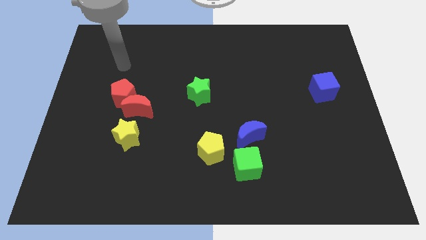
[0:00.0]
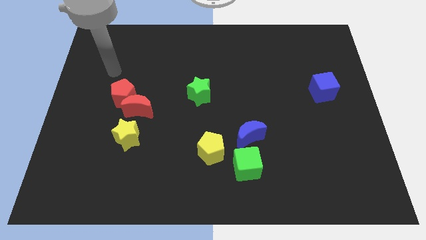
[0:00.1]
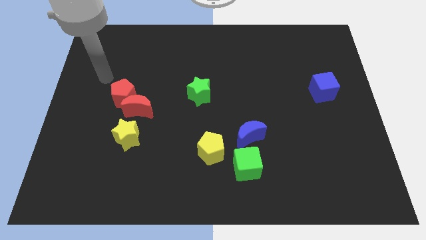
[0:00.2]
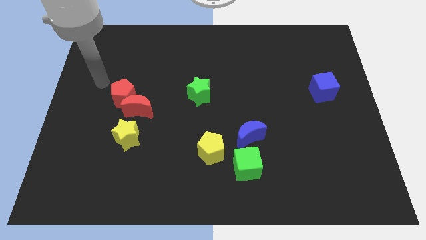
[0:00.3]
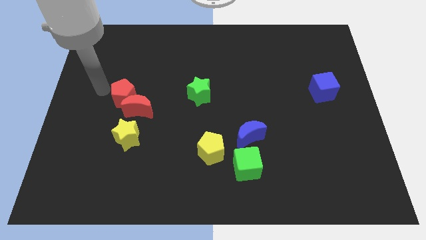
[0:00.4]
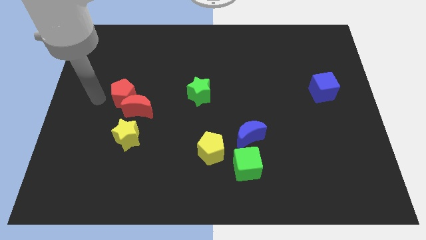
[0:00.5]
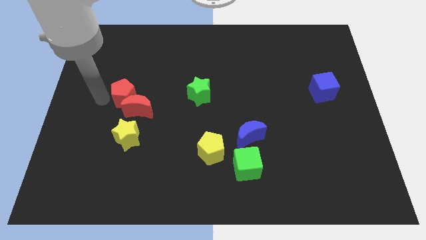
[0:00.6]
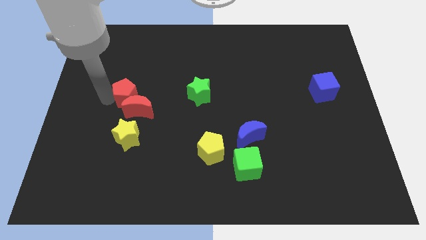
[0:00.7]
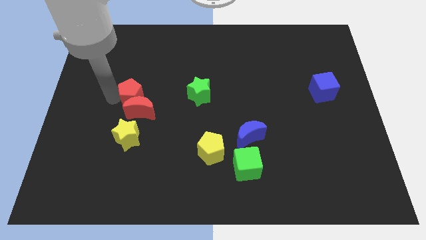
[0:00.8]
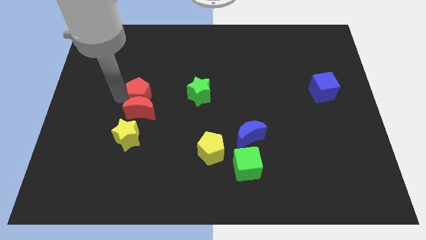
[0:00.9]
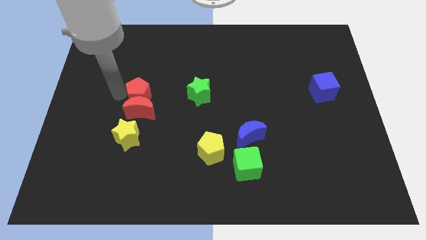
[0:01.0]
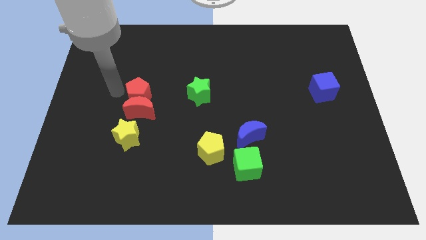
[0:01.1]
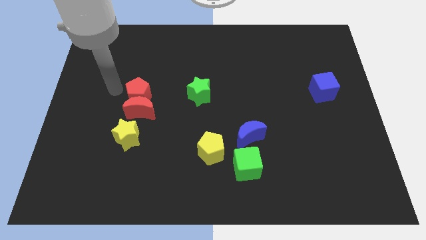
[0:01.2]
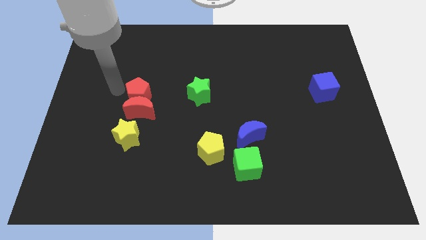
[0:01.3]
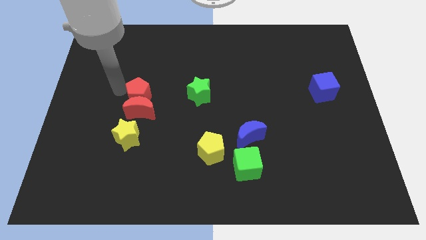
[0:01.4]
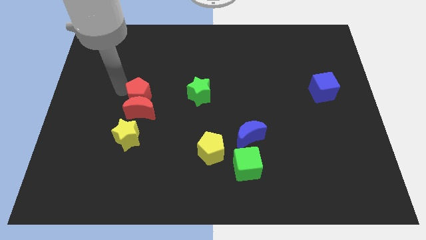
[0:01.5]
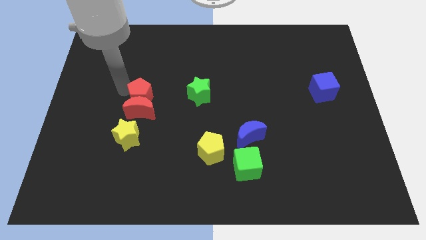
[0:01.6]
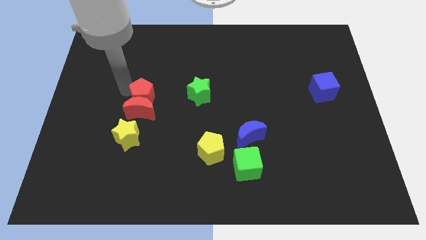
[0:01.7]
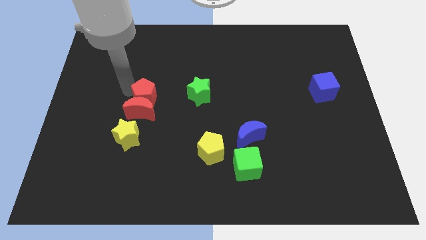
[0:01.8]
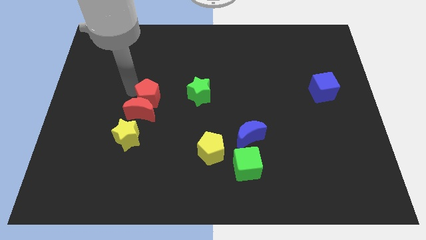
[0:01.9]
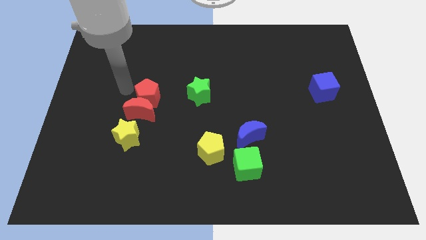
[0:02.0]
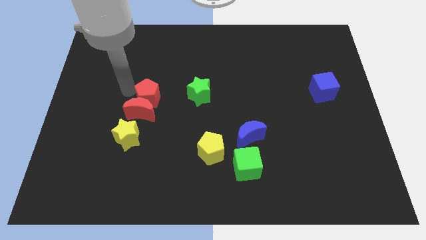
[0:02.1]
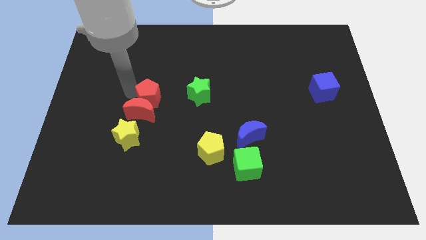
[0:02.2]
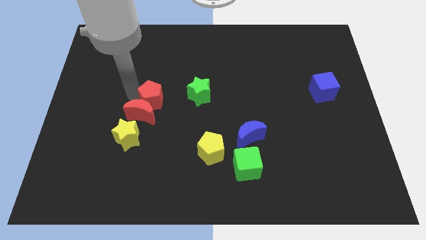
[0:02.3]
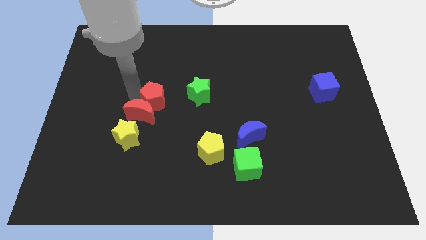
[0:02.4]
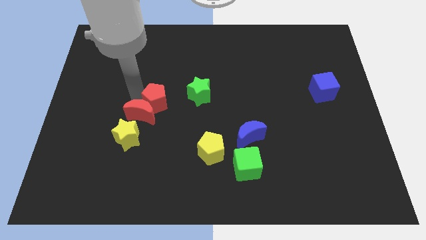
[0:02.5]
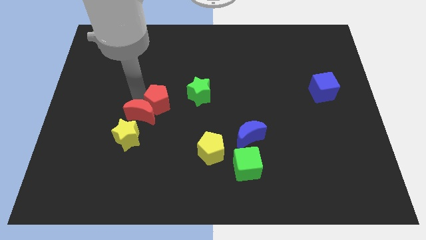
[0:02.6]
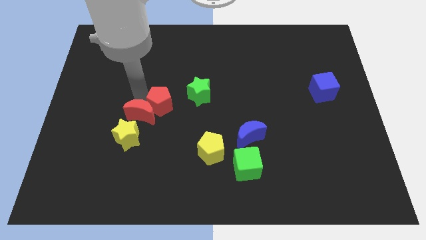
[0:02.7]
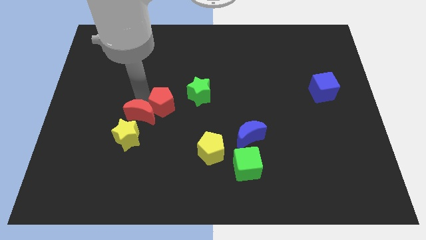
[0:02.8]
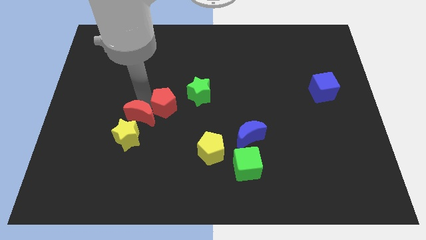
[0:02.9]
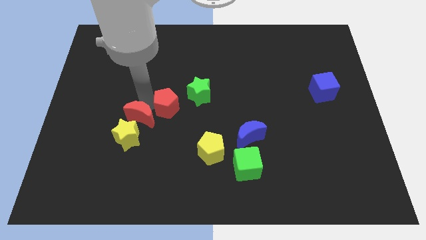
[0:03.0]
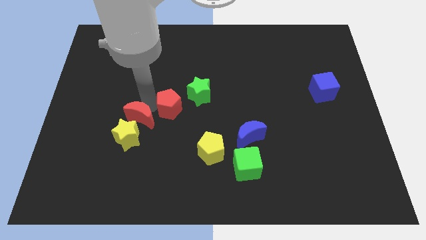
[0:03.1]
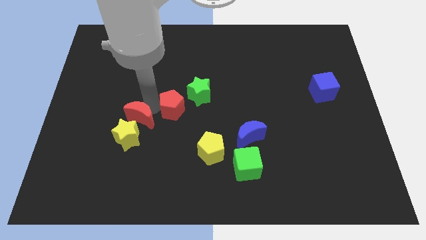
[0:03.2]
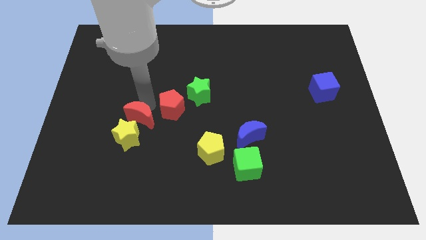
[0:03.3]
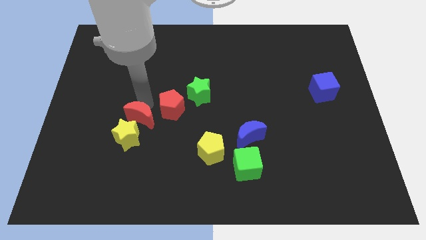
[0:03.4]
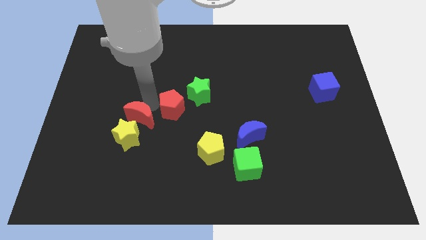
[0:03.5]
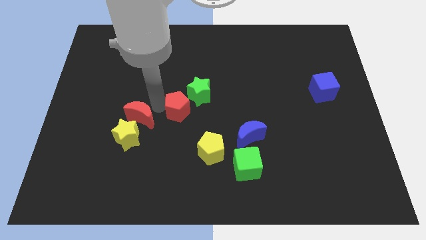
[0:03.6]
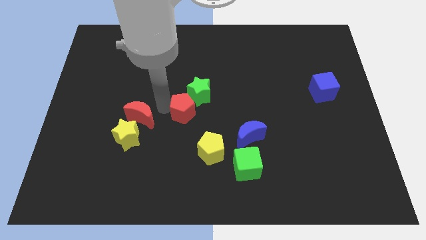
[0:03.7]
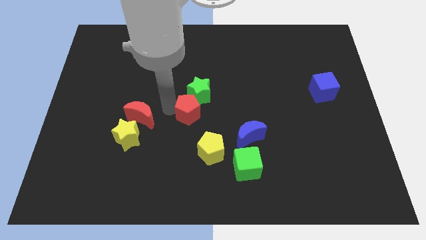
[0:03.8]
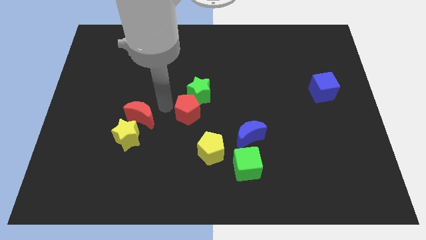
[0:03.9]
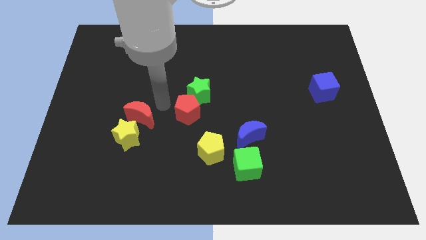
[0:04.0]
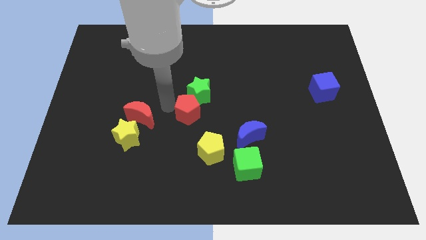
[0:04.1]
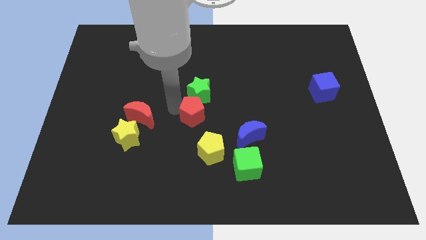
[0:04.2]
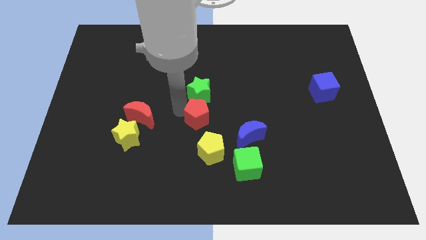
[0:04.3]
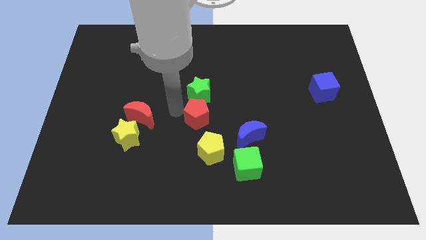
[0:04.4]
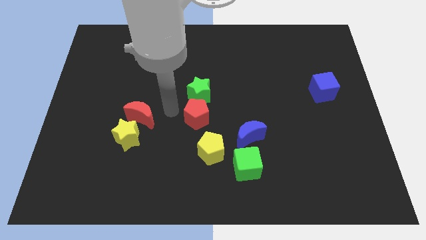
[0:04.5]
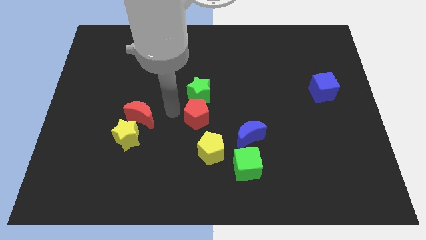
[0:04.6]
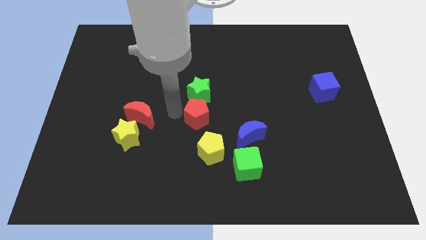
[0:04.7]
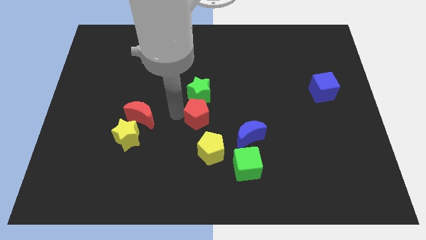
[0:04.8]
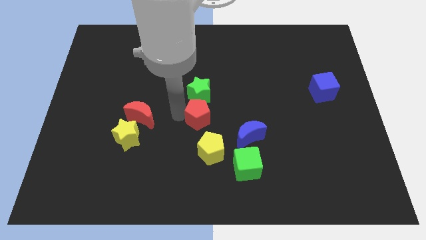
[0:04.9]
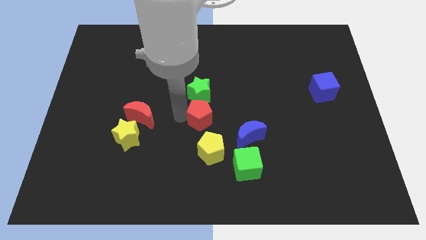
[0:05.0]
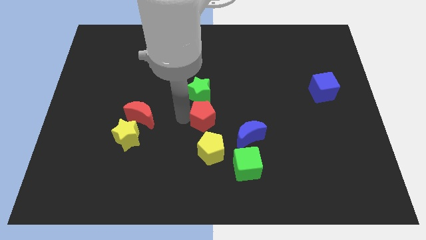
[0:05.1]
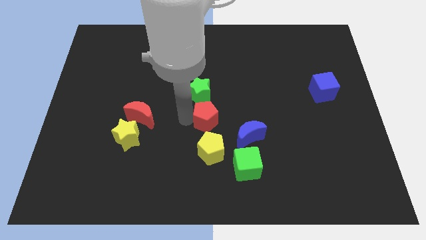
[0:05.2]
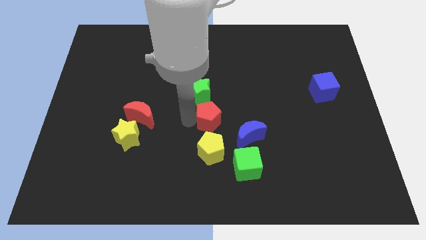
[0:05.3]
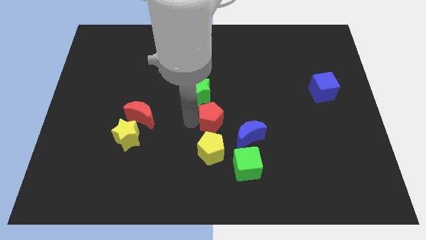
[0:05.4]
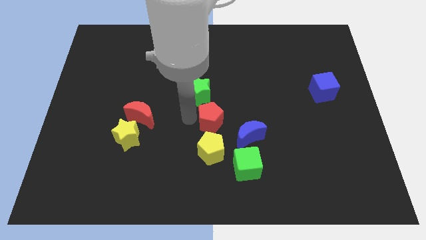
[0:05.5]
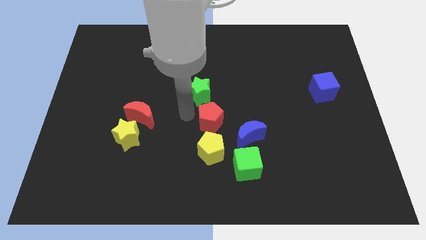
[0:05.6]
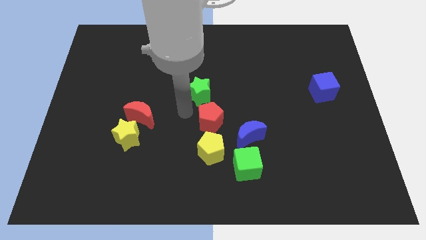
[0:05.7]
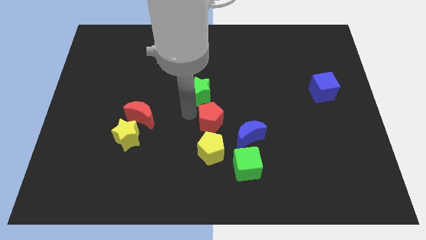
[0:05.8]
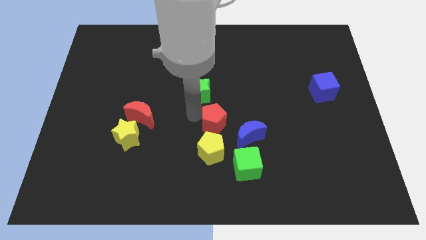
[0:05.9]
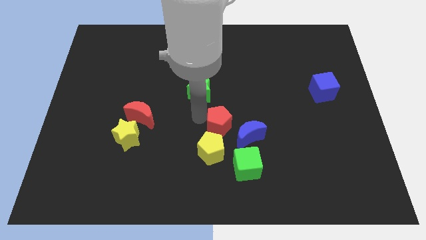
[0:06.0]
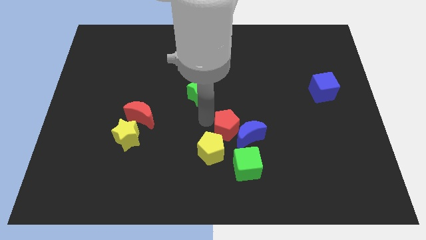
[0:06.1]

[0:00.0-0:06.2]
push the red pentagon towards the blue moon

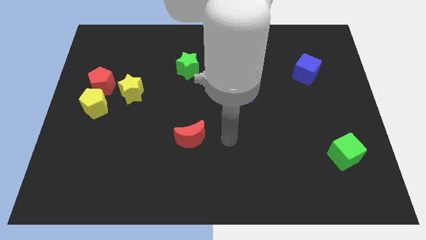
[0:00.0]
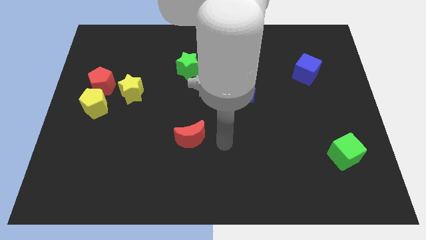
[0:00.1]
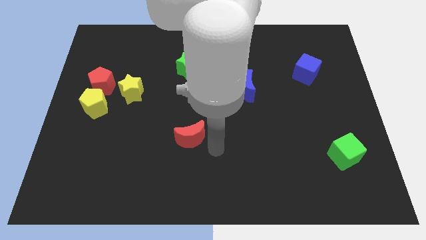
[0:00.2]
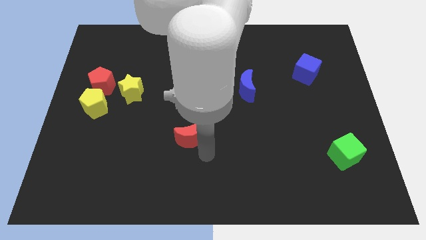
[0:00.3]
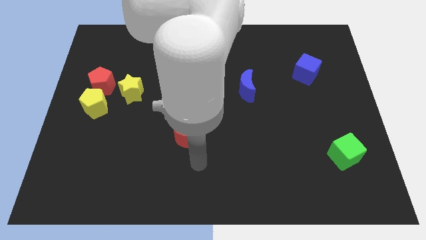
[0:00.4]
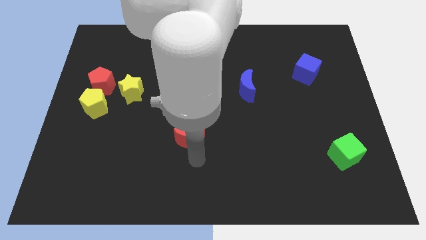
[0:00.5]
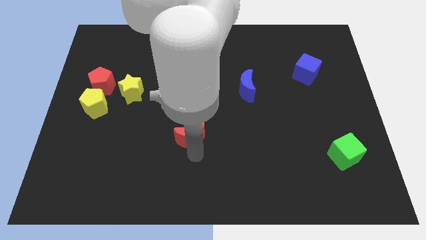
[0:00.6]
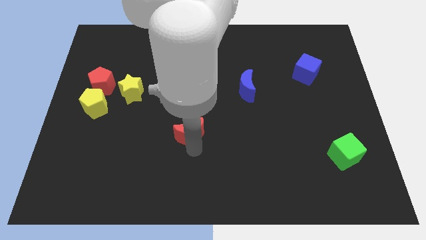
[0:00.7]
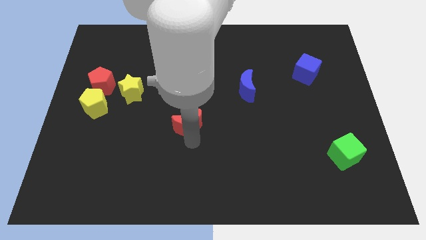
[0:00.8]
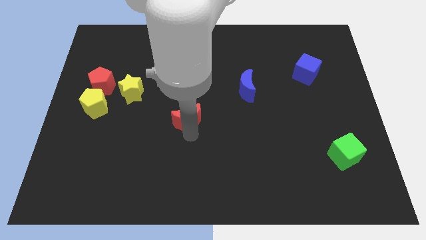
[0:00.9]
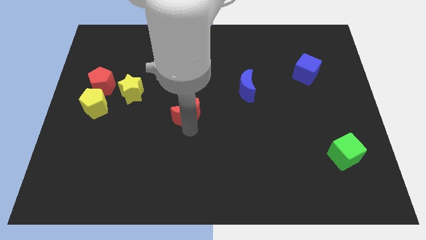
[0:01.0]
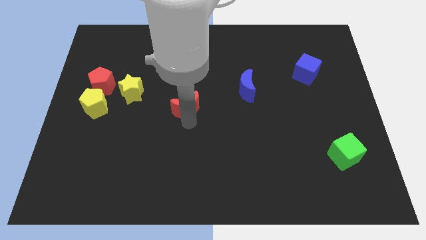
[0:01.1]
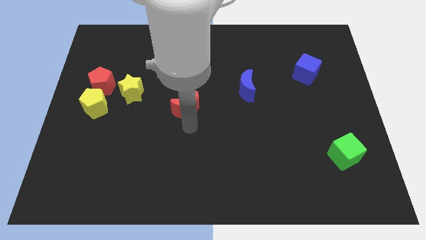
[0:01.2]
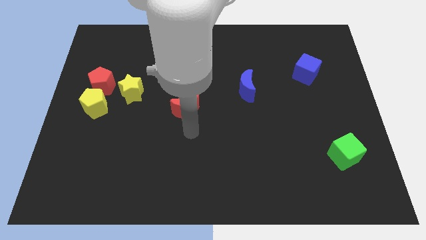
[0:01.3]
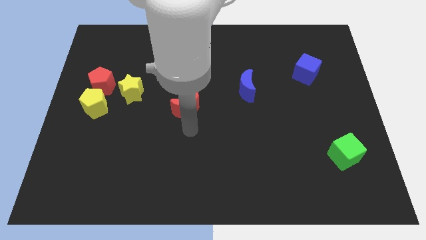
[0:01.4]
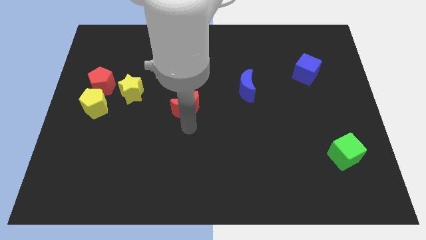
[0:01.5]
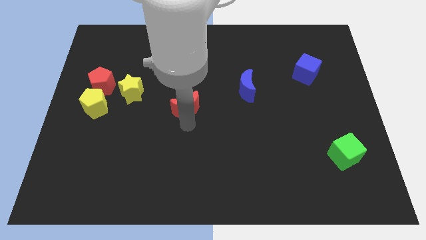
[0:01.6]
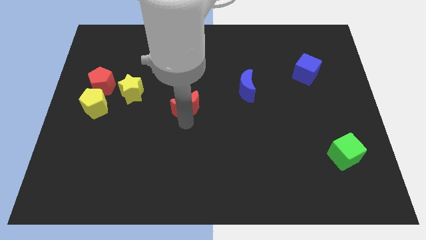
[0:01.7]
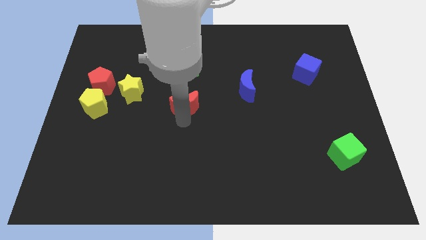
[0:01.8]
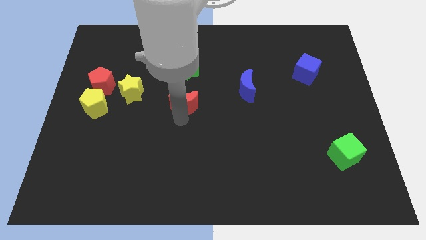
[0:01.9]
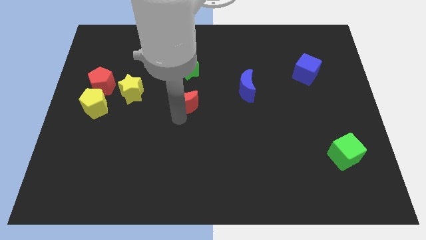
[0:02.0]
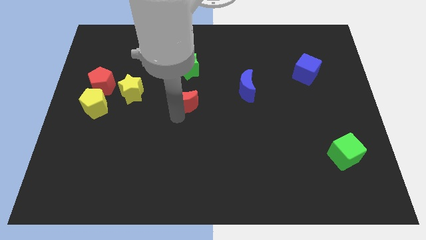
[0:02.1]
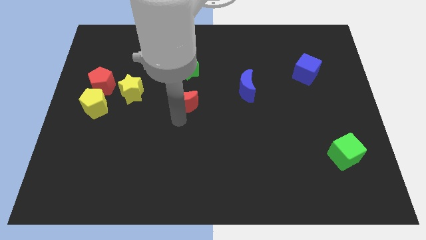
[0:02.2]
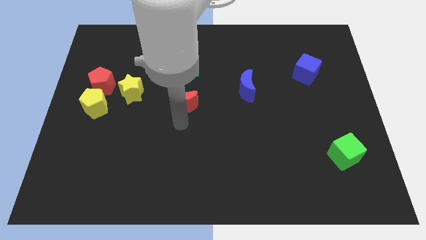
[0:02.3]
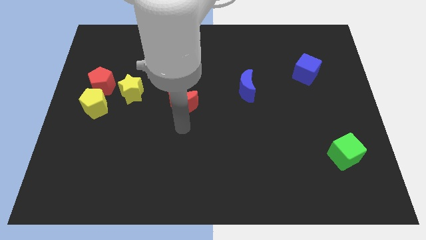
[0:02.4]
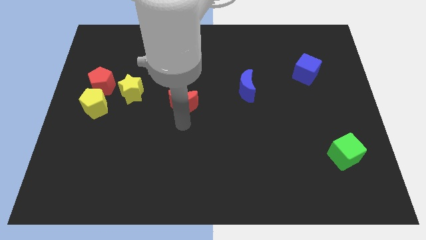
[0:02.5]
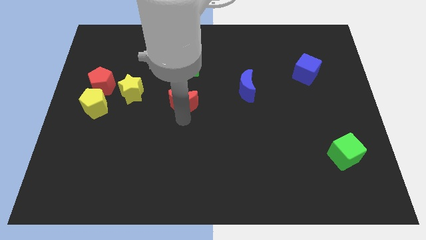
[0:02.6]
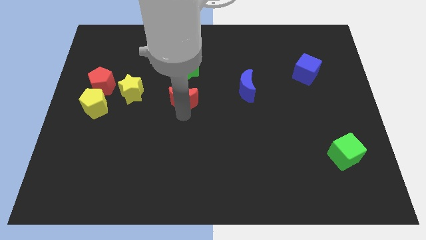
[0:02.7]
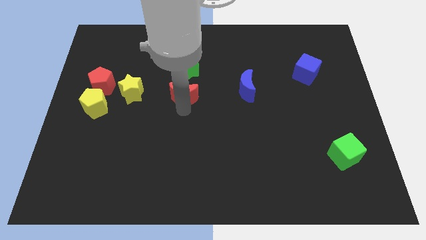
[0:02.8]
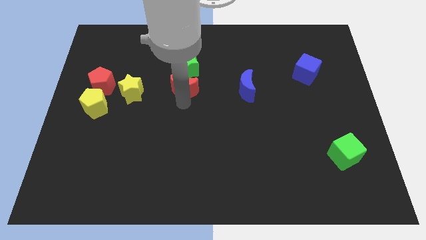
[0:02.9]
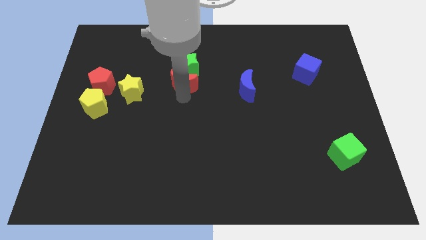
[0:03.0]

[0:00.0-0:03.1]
push the red moon to the green star
